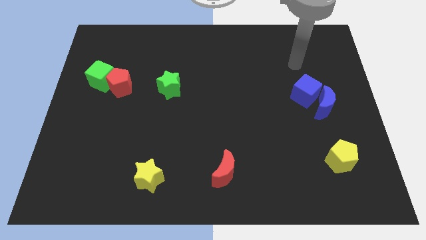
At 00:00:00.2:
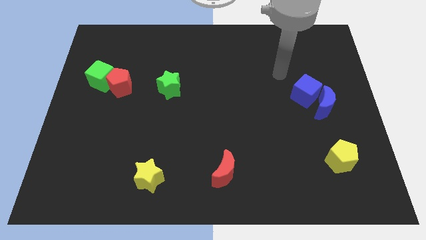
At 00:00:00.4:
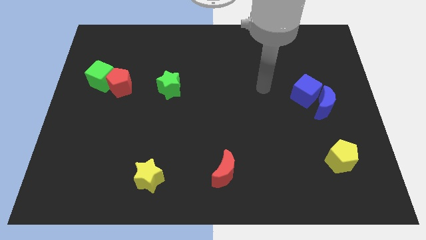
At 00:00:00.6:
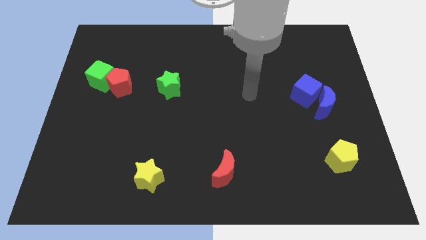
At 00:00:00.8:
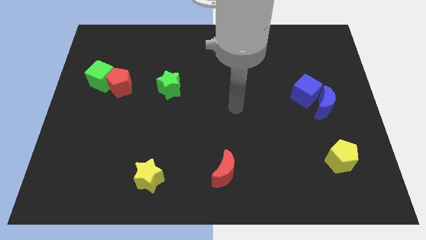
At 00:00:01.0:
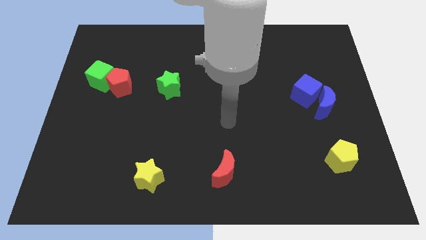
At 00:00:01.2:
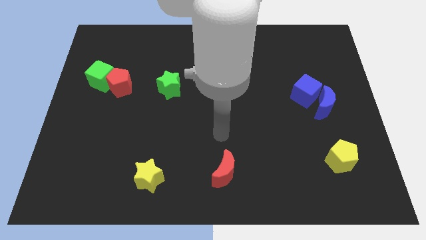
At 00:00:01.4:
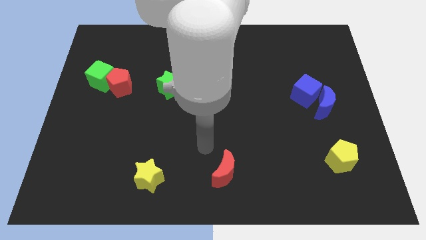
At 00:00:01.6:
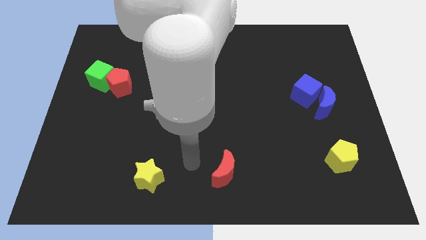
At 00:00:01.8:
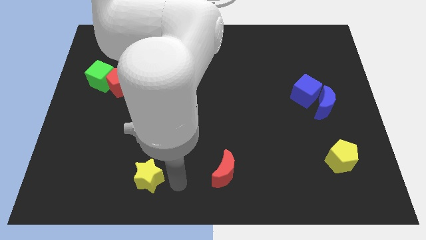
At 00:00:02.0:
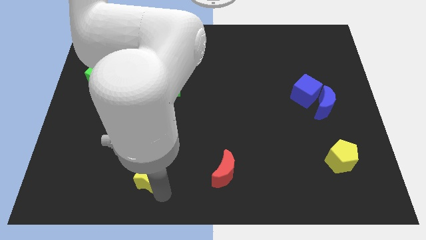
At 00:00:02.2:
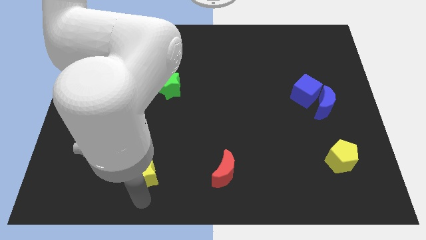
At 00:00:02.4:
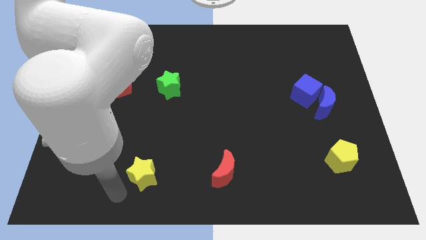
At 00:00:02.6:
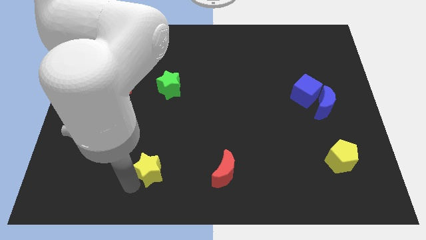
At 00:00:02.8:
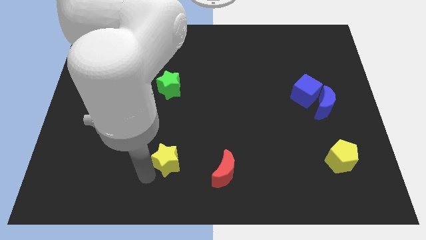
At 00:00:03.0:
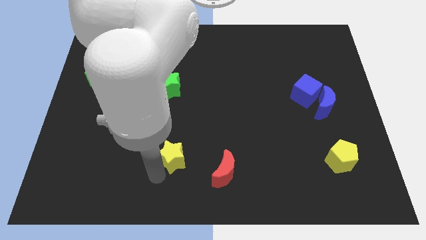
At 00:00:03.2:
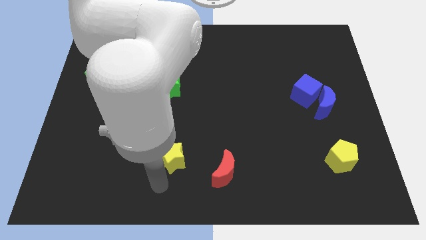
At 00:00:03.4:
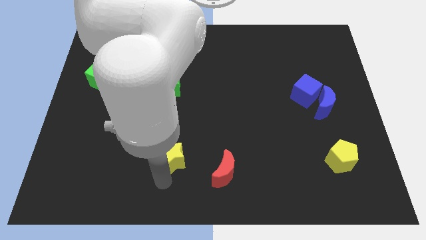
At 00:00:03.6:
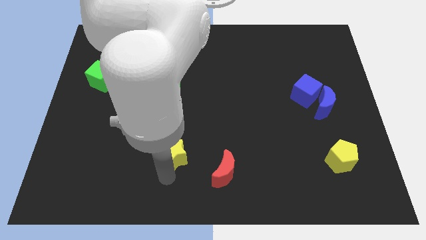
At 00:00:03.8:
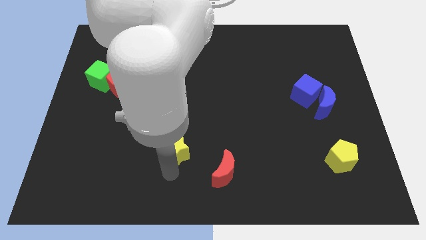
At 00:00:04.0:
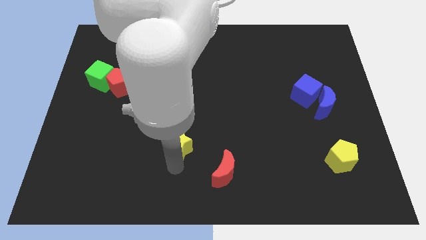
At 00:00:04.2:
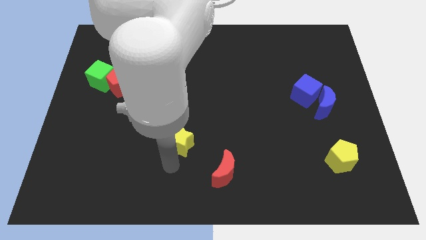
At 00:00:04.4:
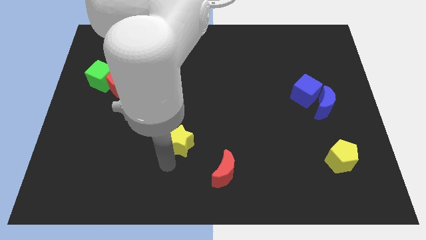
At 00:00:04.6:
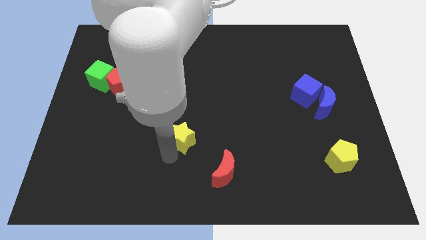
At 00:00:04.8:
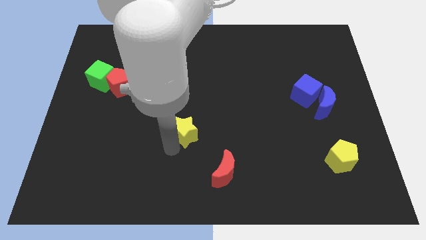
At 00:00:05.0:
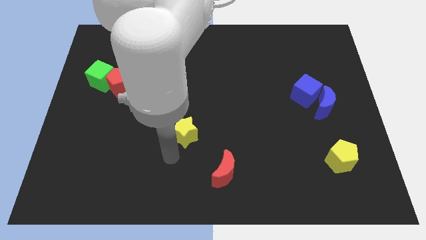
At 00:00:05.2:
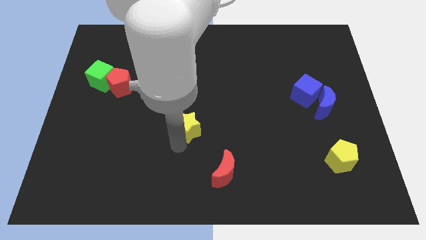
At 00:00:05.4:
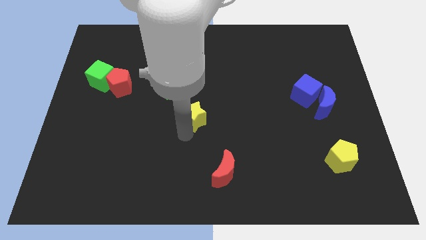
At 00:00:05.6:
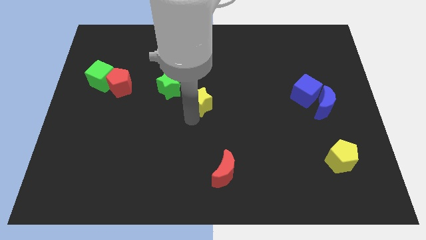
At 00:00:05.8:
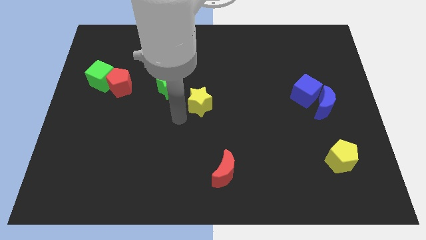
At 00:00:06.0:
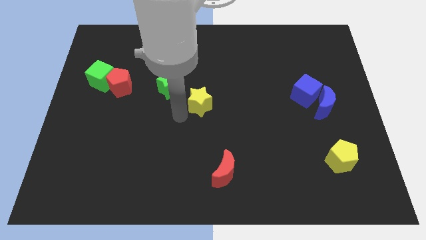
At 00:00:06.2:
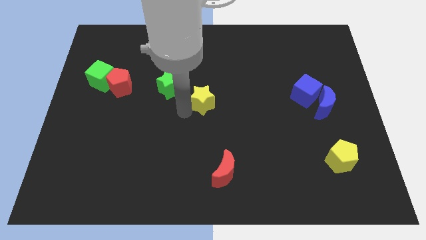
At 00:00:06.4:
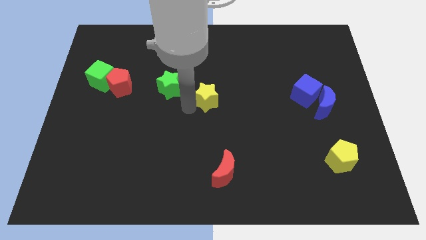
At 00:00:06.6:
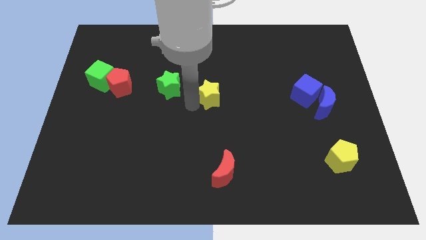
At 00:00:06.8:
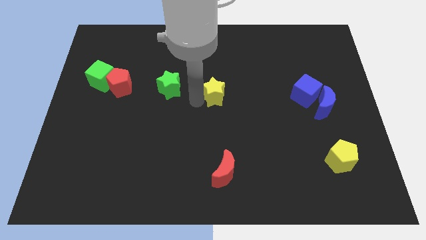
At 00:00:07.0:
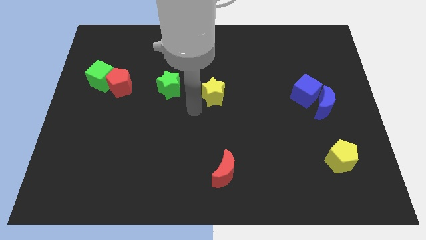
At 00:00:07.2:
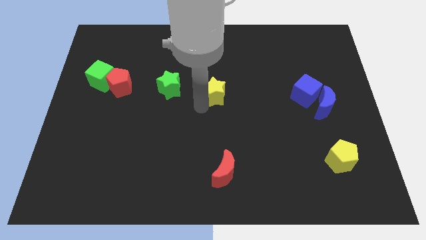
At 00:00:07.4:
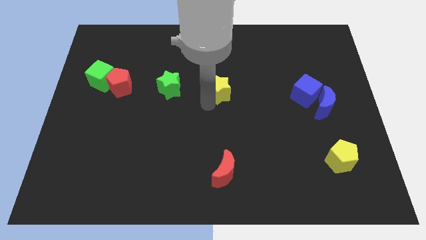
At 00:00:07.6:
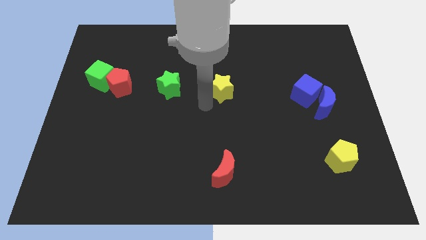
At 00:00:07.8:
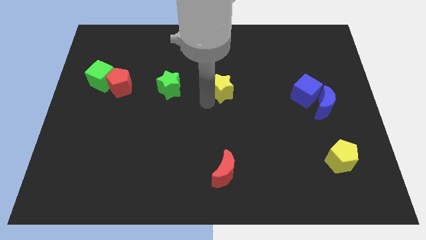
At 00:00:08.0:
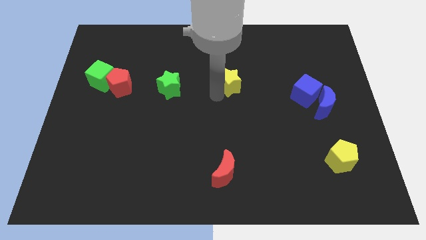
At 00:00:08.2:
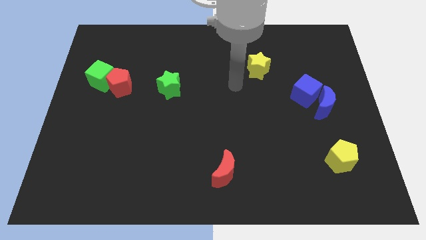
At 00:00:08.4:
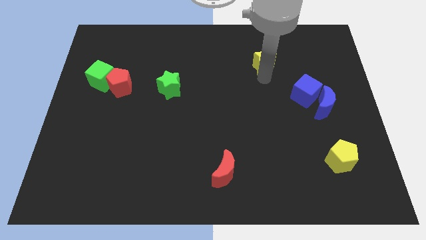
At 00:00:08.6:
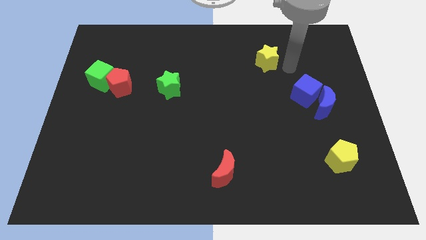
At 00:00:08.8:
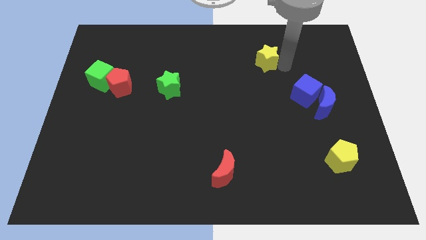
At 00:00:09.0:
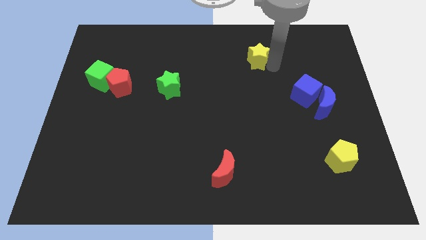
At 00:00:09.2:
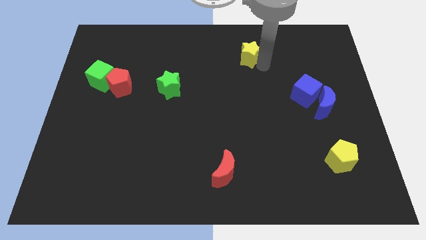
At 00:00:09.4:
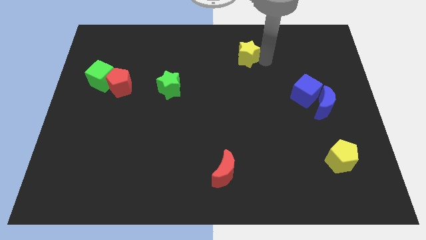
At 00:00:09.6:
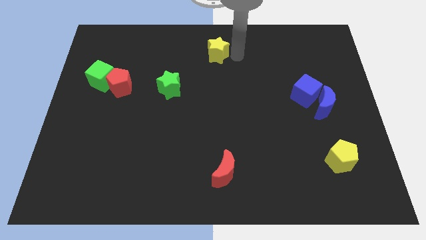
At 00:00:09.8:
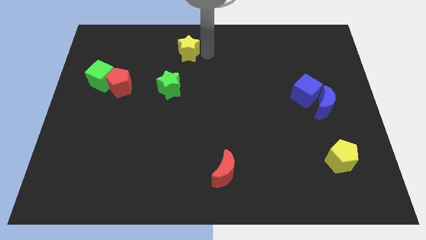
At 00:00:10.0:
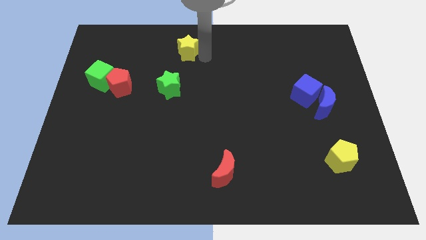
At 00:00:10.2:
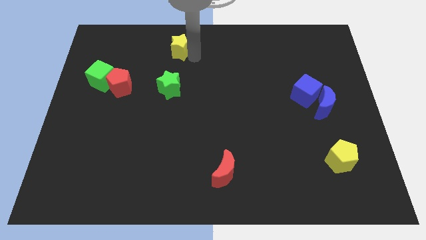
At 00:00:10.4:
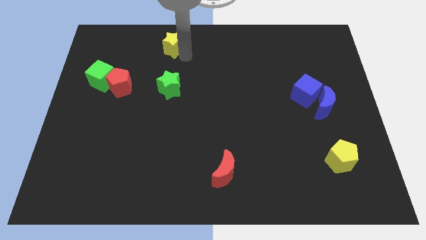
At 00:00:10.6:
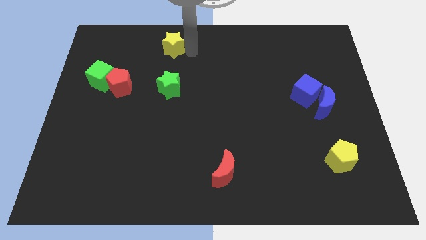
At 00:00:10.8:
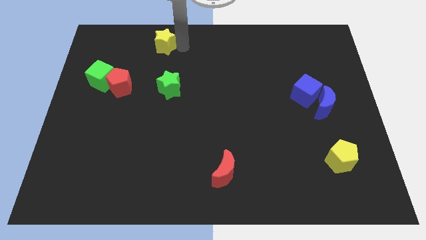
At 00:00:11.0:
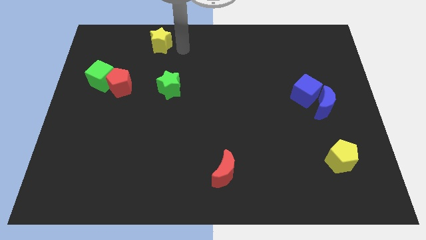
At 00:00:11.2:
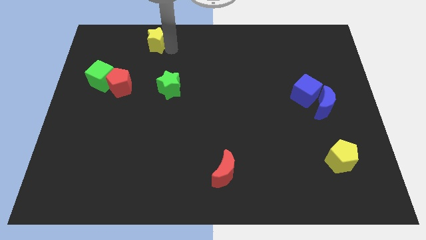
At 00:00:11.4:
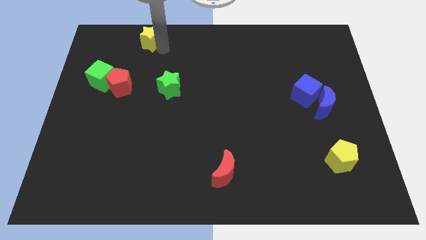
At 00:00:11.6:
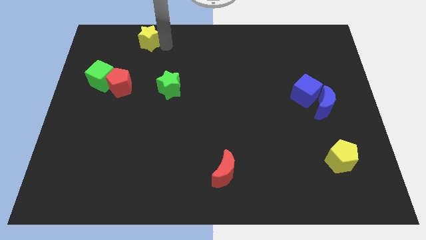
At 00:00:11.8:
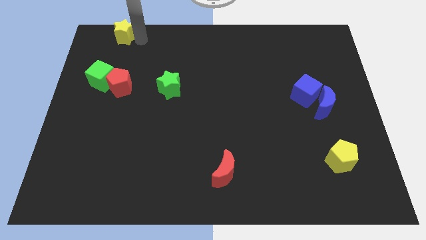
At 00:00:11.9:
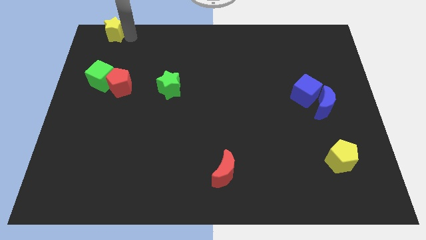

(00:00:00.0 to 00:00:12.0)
put the yellow star to the top left of the board
